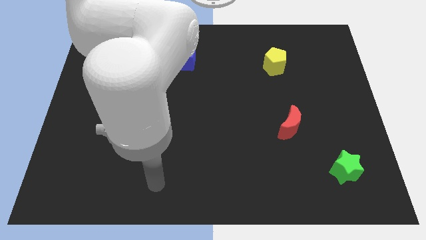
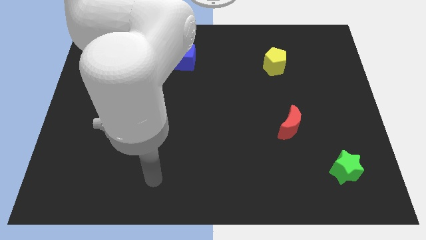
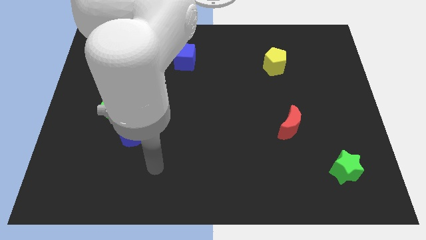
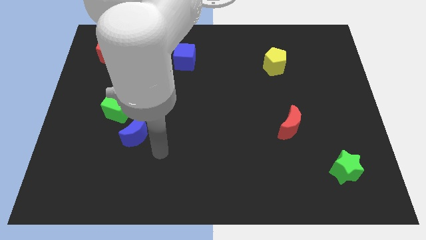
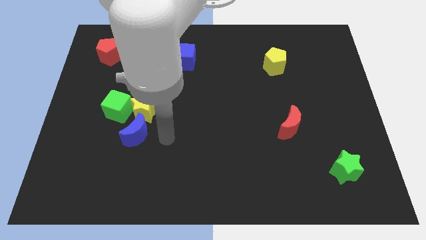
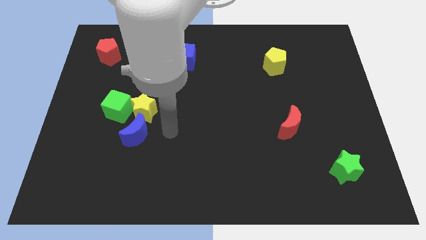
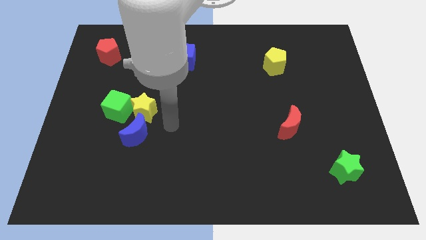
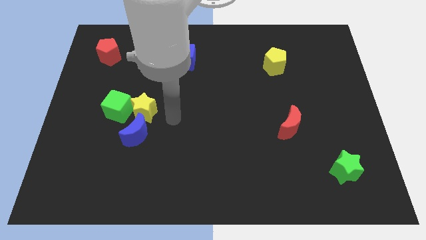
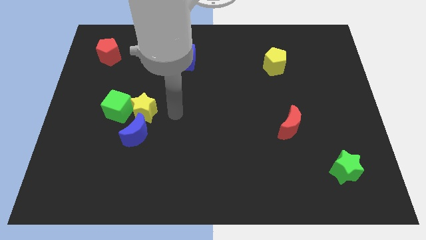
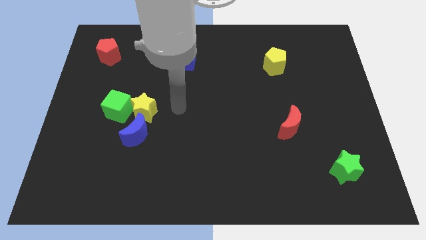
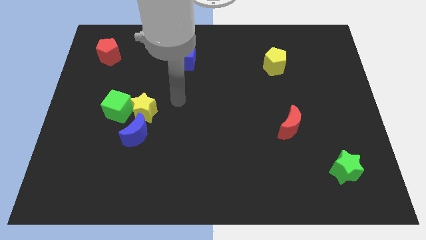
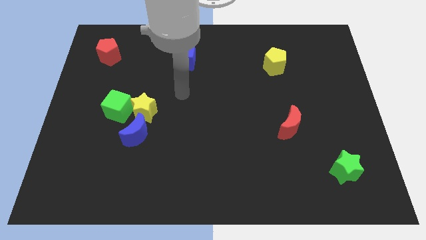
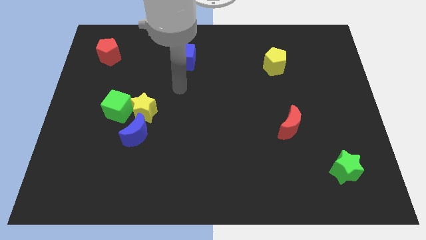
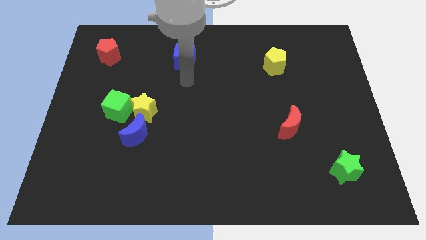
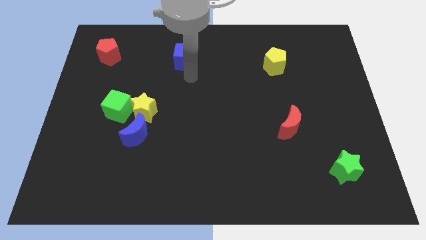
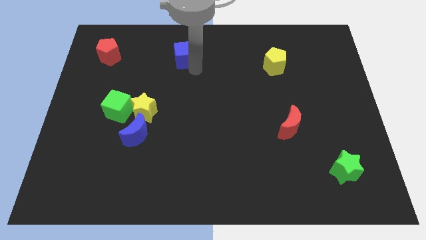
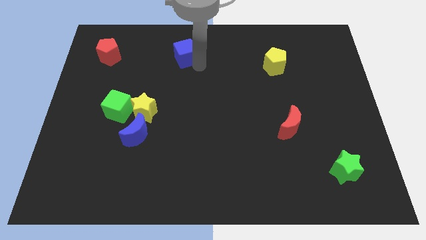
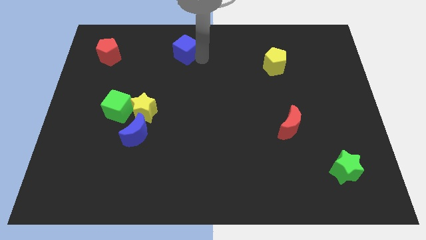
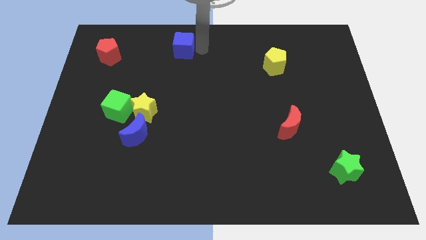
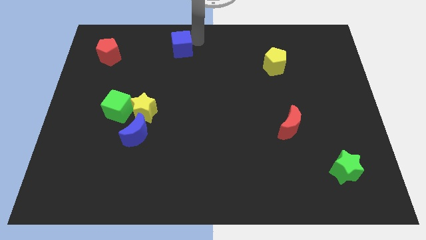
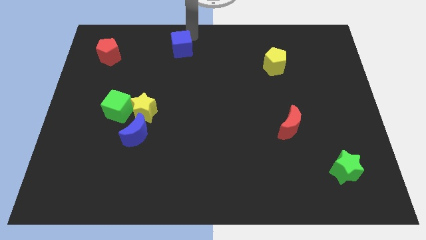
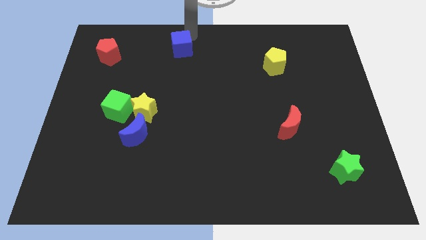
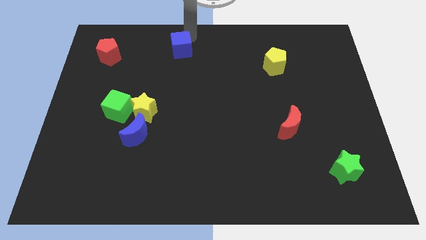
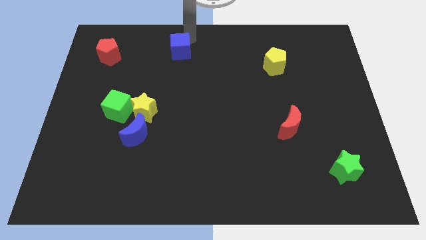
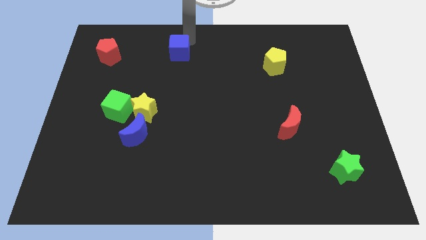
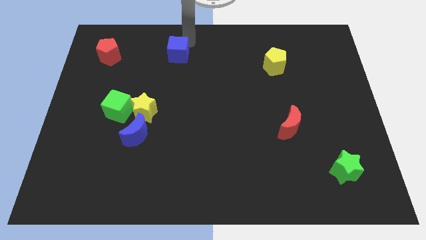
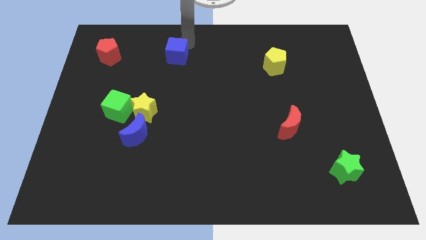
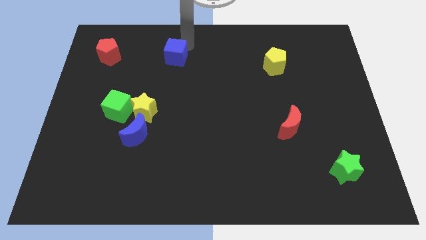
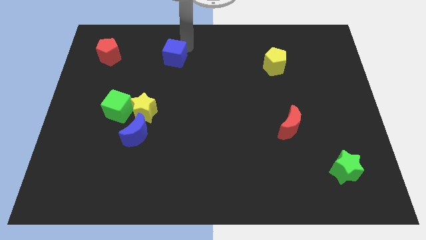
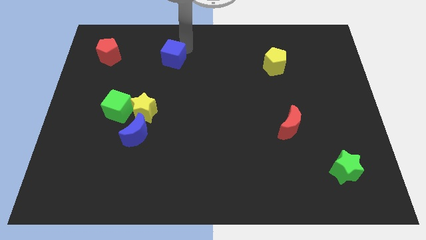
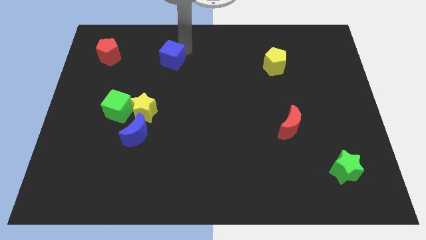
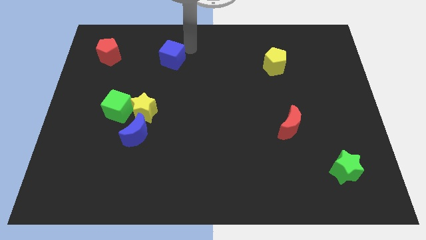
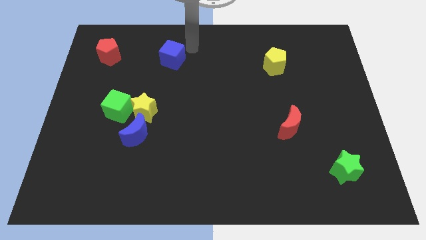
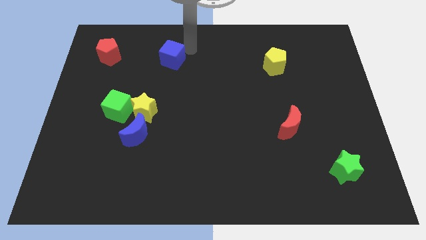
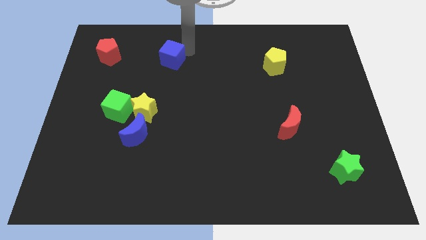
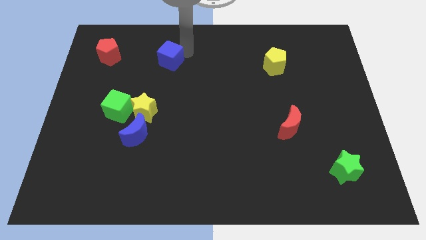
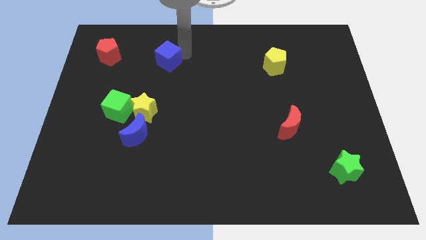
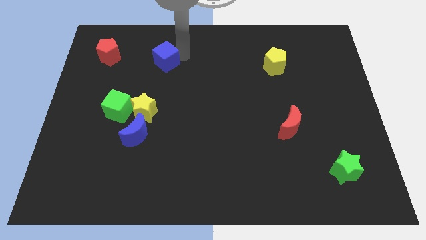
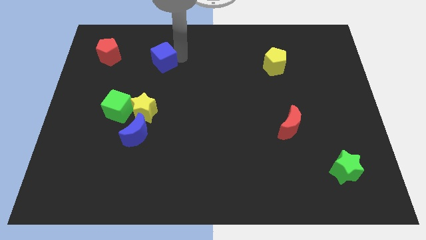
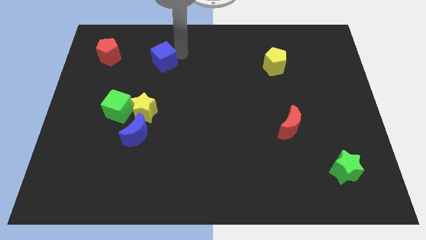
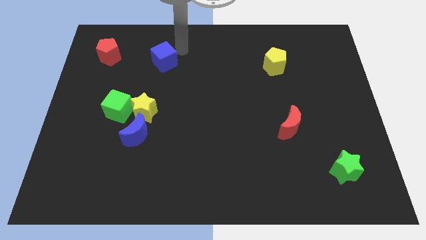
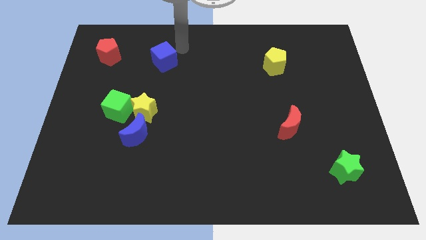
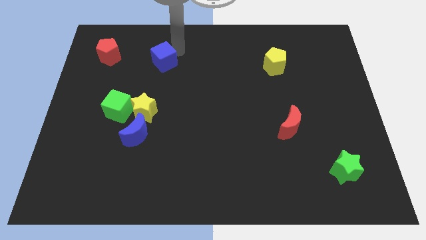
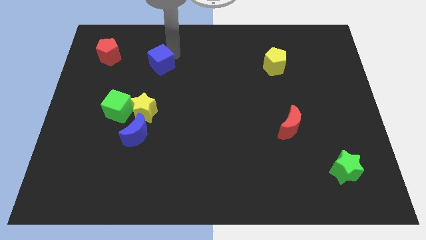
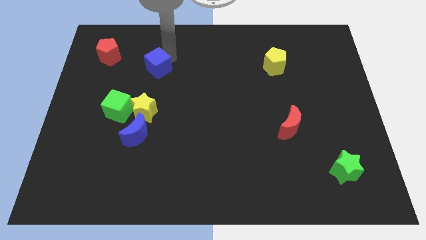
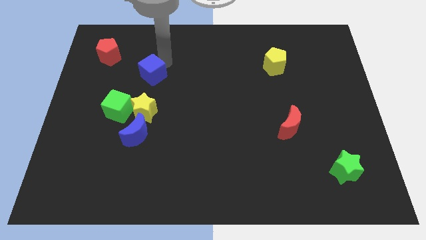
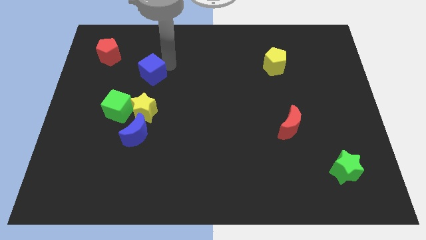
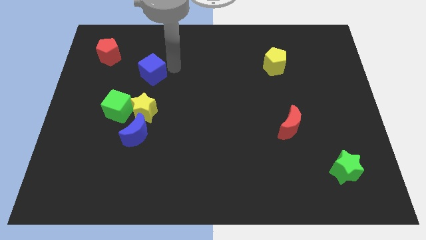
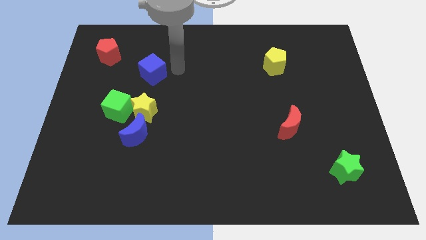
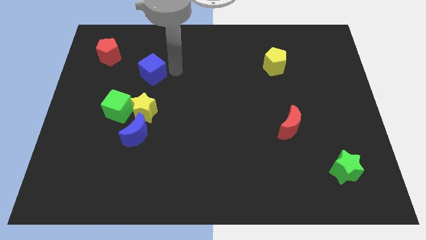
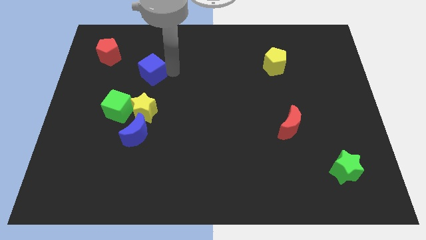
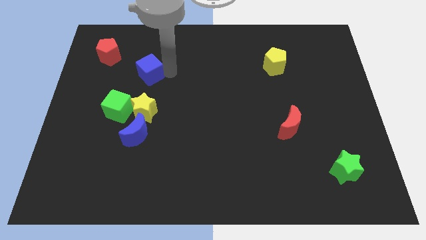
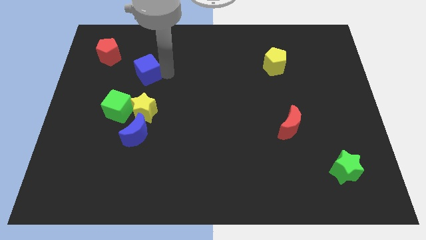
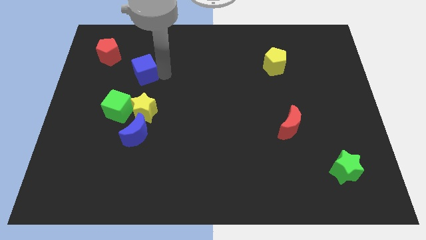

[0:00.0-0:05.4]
move the blue cube above the green cube
